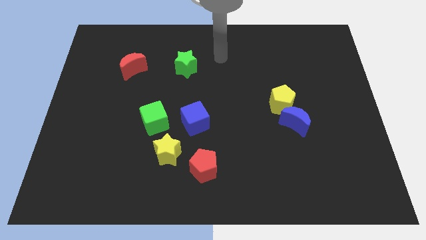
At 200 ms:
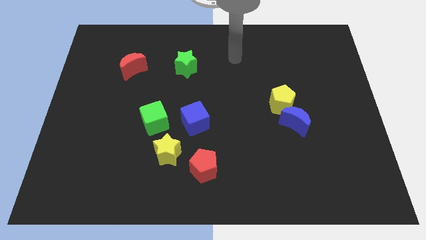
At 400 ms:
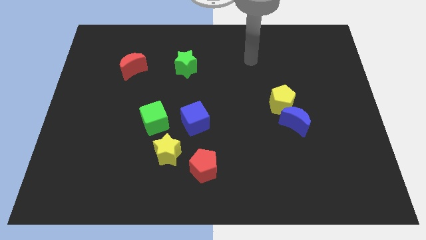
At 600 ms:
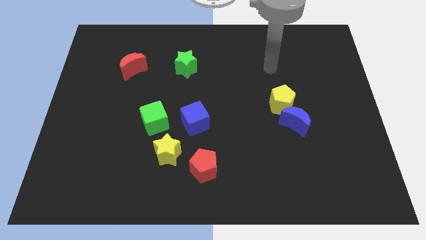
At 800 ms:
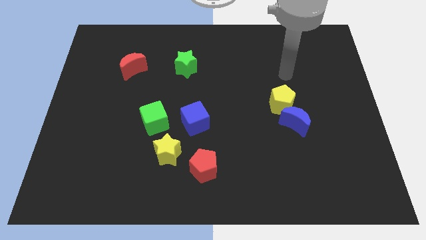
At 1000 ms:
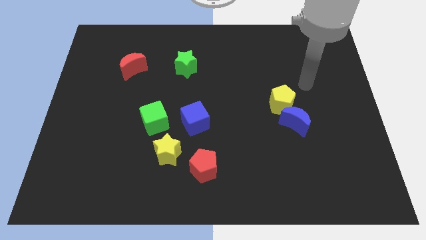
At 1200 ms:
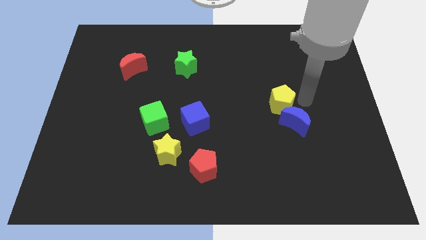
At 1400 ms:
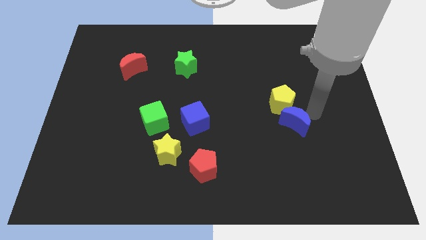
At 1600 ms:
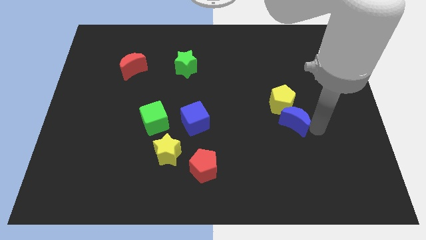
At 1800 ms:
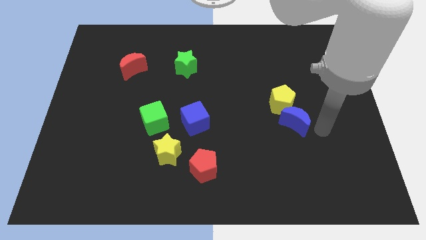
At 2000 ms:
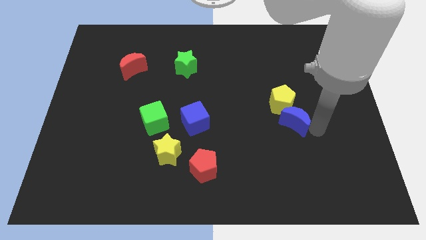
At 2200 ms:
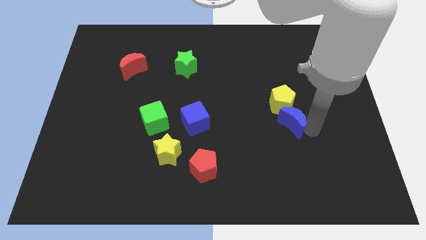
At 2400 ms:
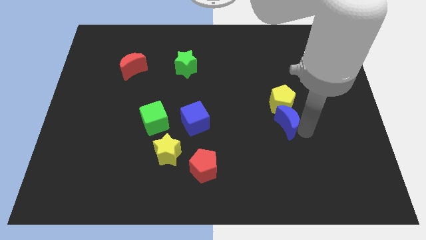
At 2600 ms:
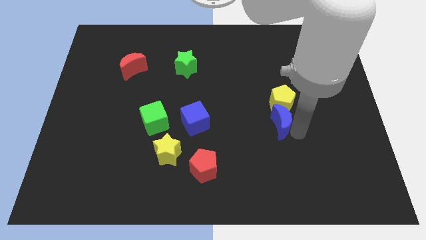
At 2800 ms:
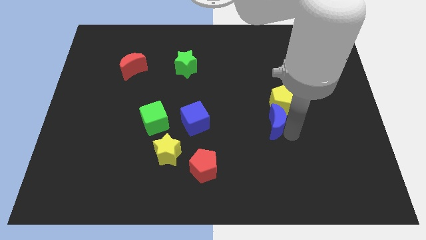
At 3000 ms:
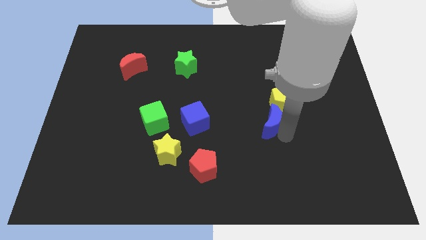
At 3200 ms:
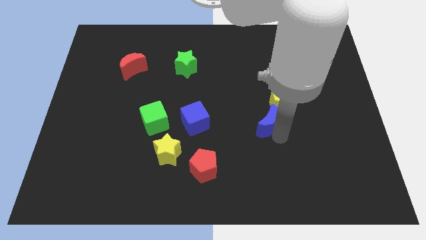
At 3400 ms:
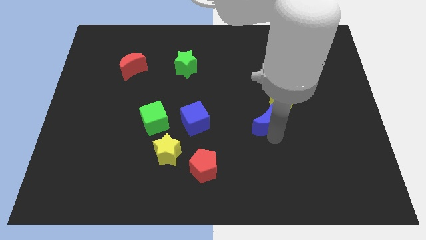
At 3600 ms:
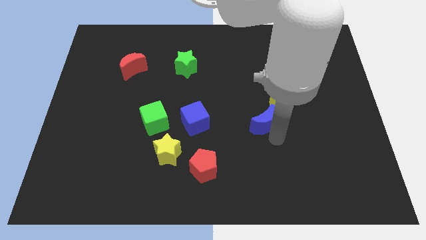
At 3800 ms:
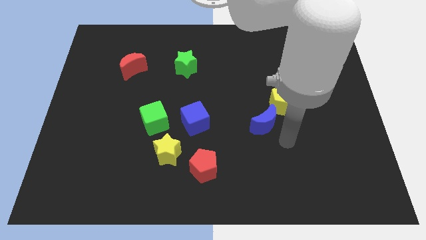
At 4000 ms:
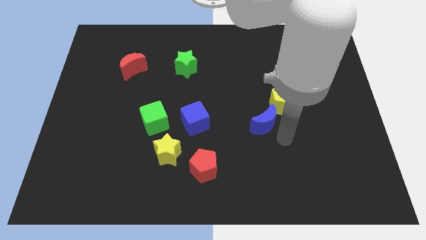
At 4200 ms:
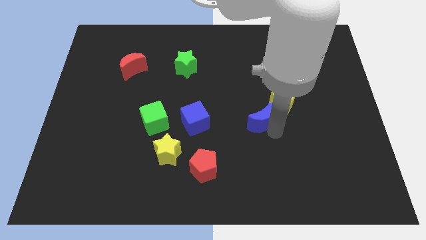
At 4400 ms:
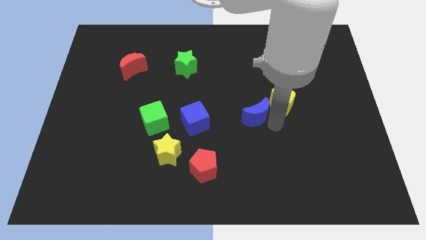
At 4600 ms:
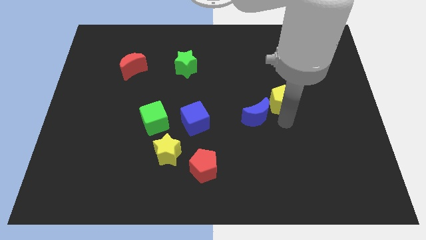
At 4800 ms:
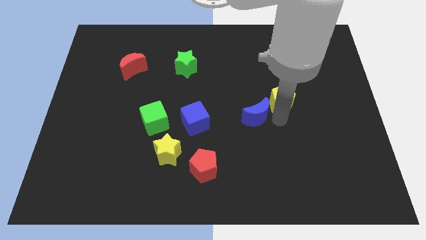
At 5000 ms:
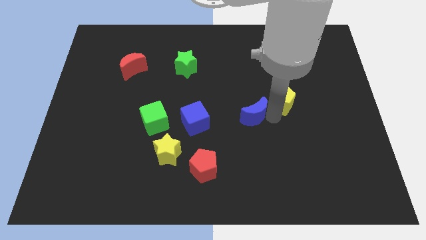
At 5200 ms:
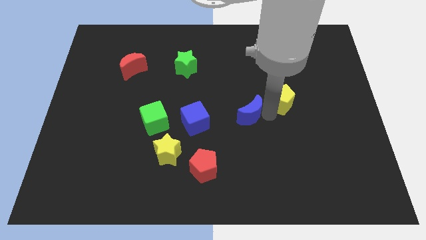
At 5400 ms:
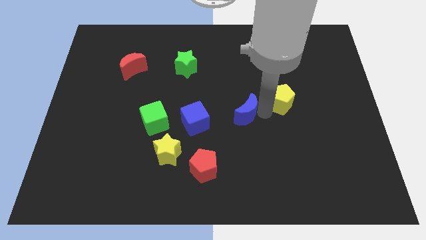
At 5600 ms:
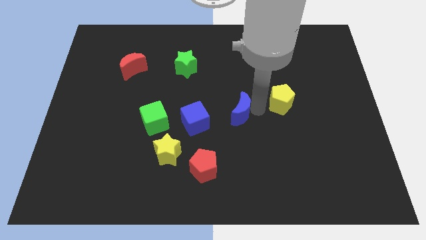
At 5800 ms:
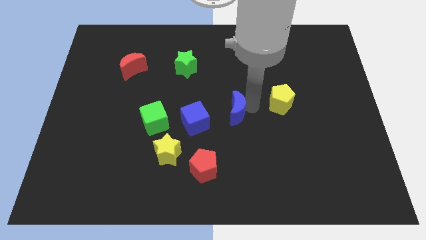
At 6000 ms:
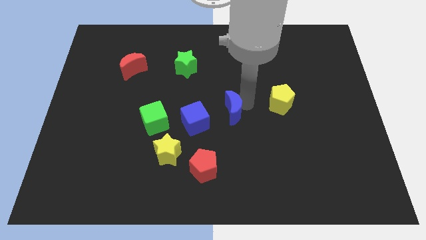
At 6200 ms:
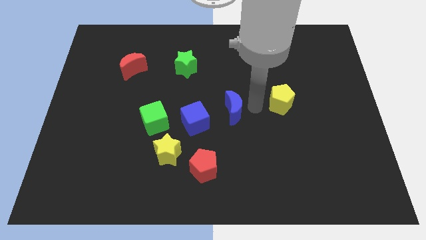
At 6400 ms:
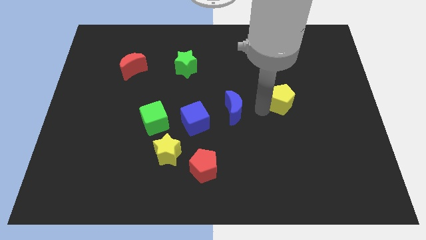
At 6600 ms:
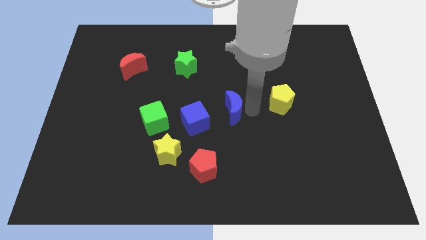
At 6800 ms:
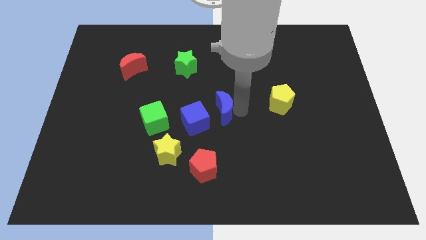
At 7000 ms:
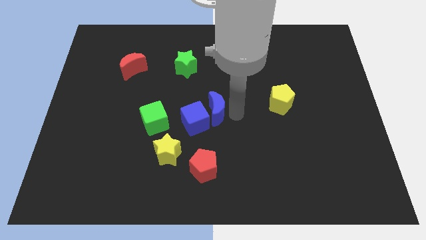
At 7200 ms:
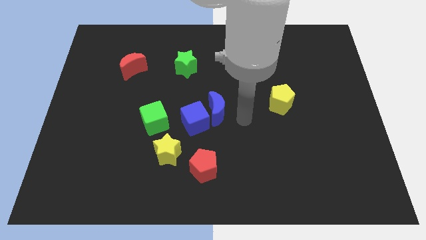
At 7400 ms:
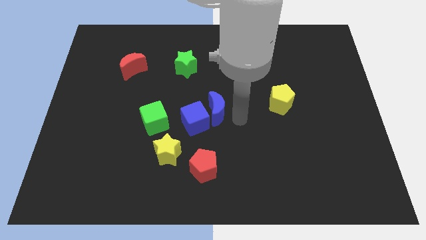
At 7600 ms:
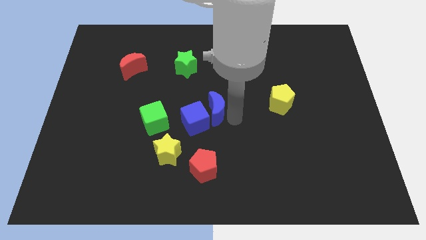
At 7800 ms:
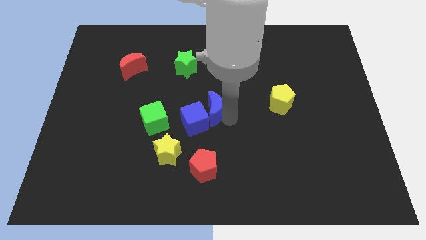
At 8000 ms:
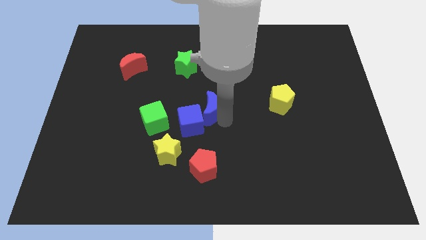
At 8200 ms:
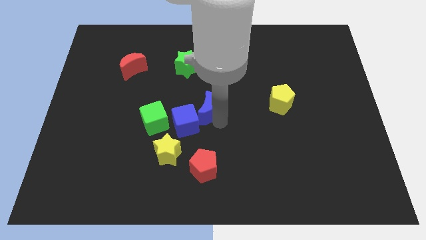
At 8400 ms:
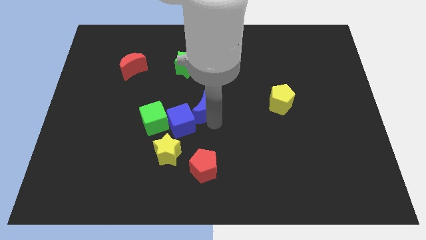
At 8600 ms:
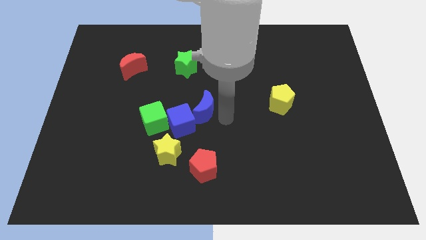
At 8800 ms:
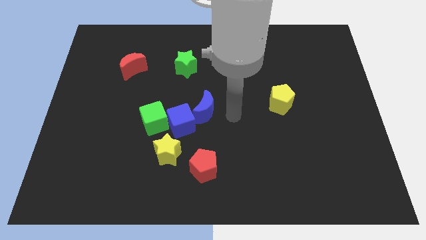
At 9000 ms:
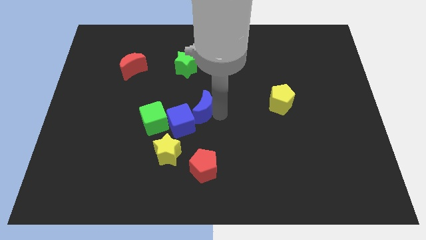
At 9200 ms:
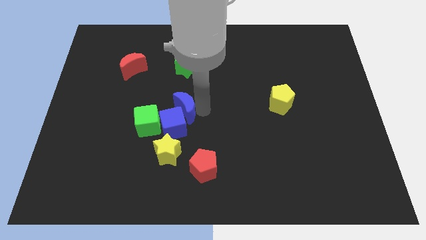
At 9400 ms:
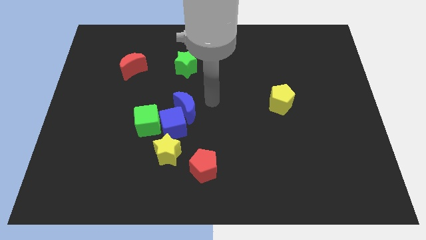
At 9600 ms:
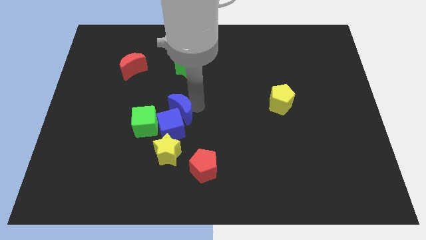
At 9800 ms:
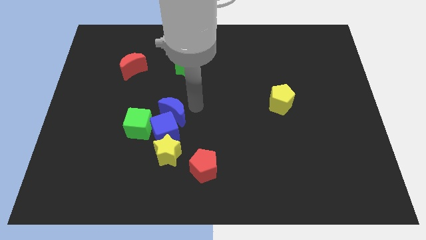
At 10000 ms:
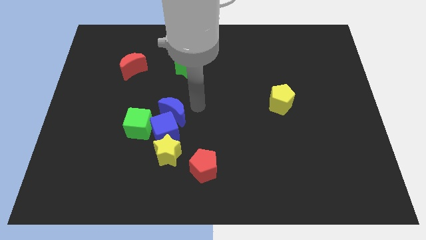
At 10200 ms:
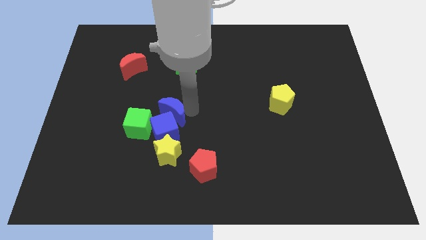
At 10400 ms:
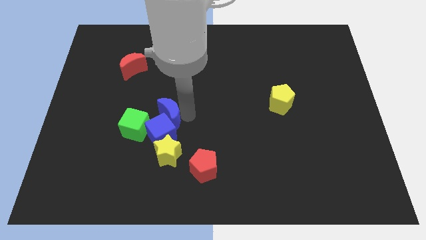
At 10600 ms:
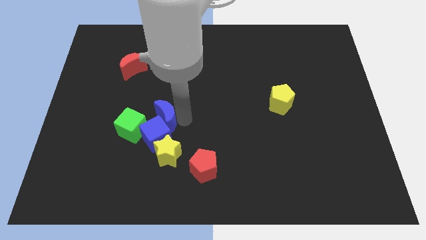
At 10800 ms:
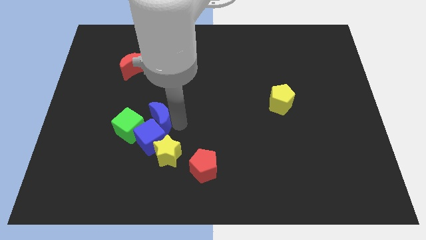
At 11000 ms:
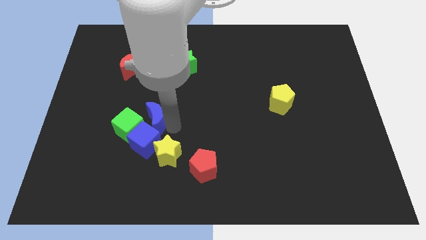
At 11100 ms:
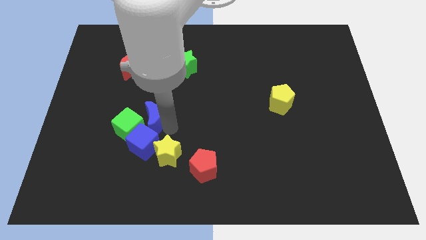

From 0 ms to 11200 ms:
push the blue moon close to the green cube

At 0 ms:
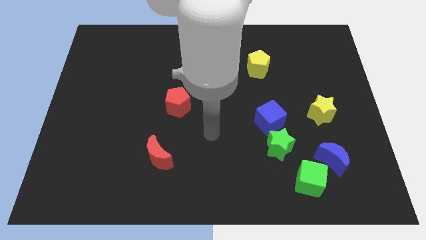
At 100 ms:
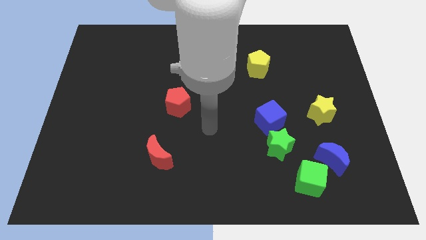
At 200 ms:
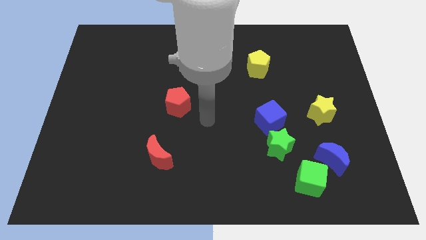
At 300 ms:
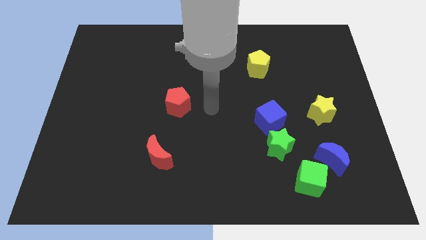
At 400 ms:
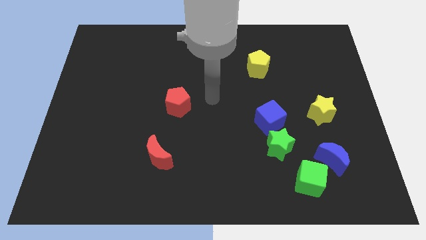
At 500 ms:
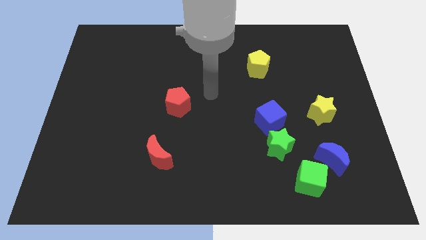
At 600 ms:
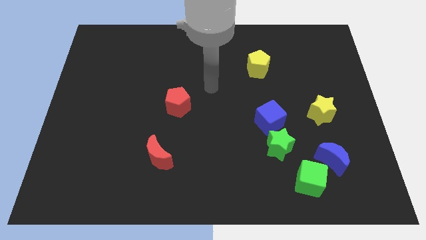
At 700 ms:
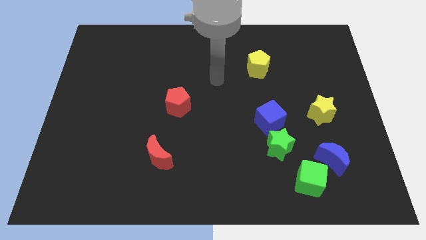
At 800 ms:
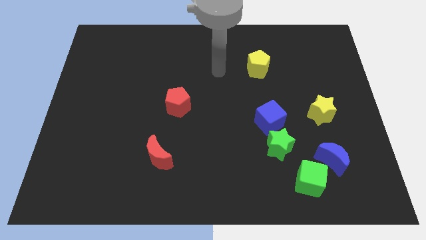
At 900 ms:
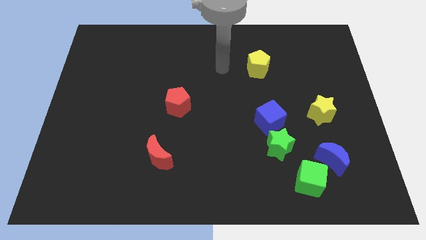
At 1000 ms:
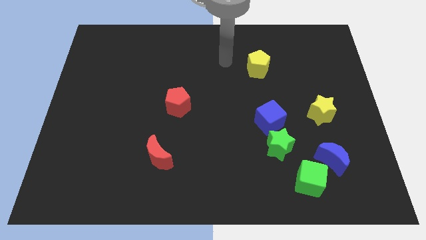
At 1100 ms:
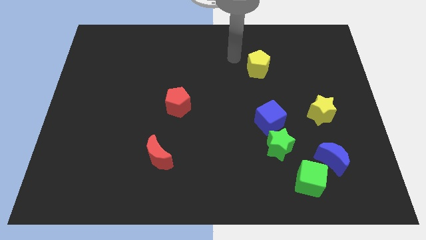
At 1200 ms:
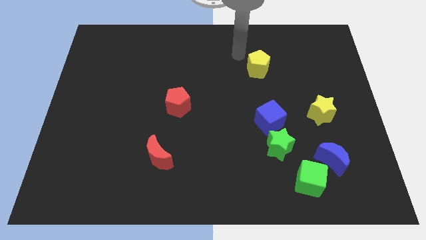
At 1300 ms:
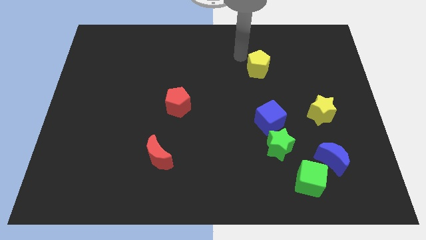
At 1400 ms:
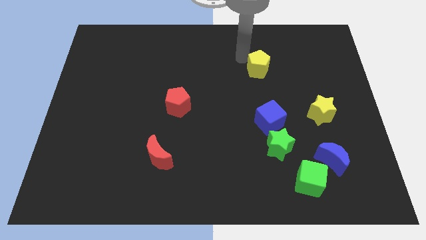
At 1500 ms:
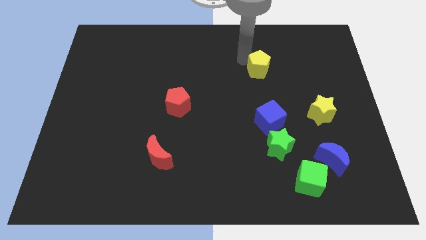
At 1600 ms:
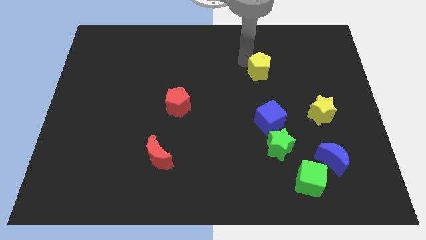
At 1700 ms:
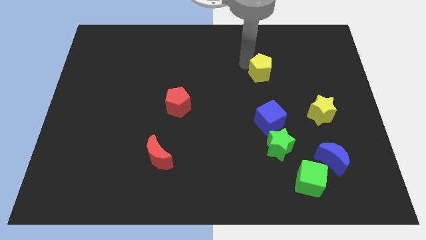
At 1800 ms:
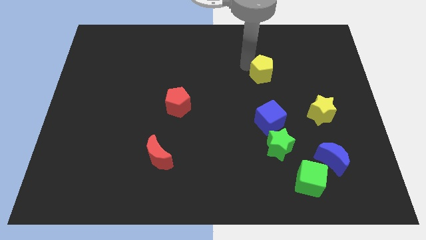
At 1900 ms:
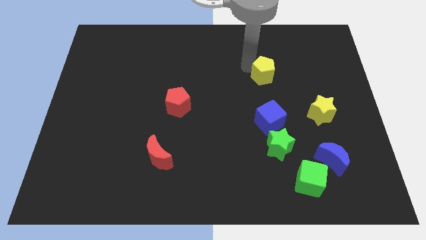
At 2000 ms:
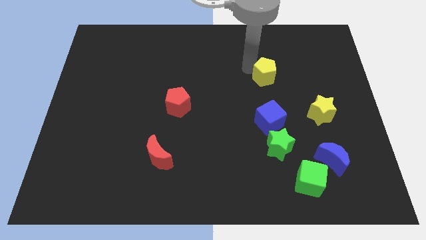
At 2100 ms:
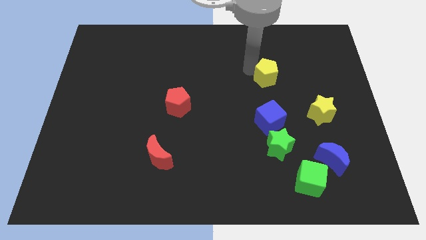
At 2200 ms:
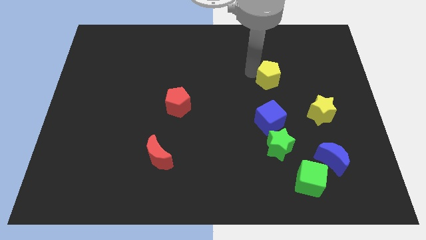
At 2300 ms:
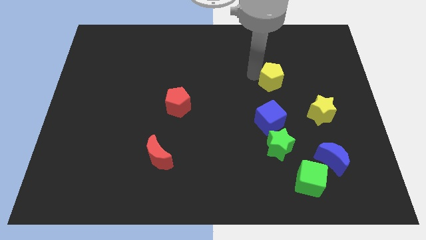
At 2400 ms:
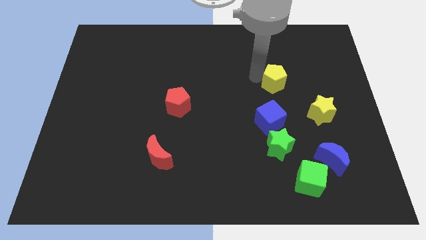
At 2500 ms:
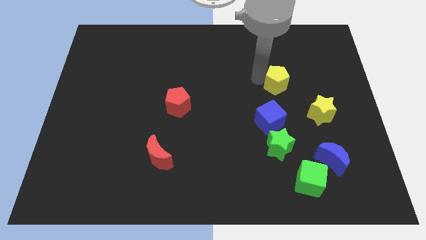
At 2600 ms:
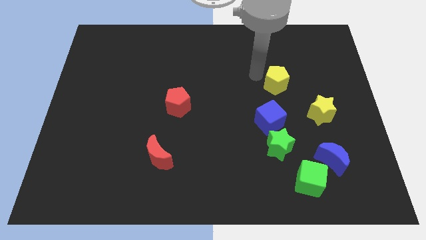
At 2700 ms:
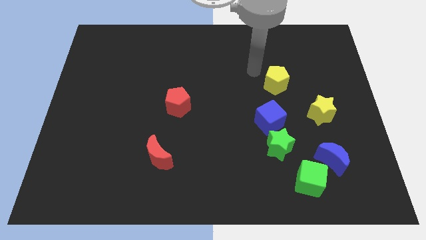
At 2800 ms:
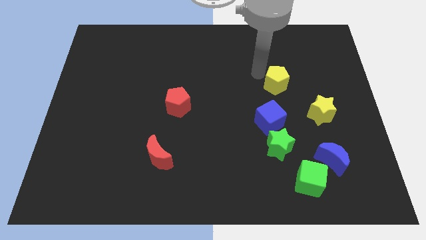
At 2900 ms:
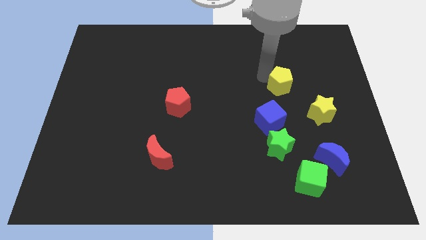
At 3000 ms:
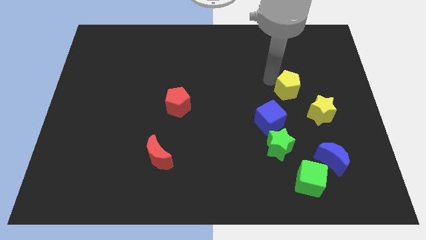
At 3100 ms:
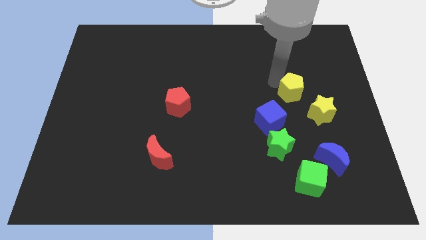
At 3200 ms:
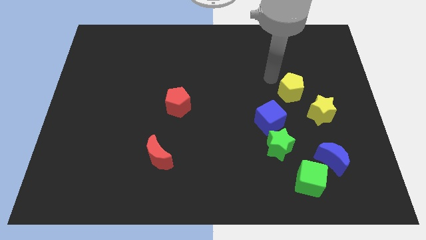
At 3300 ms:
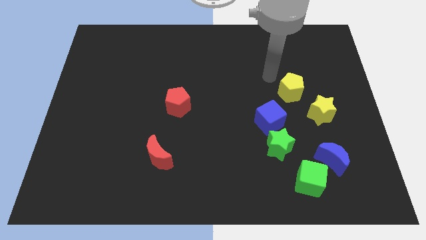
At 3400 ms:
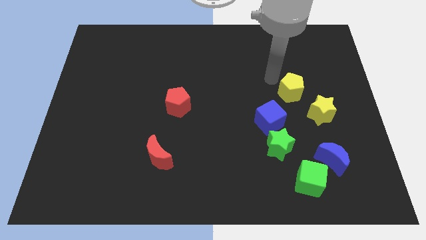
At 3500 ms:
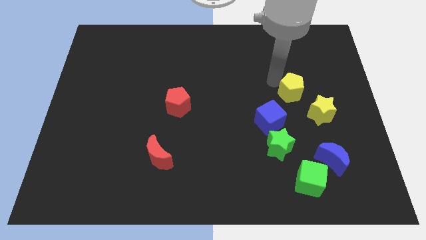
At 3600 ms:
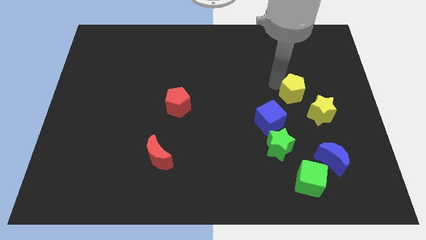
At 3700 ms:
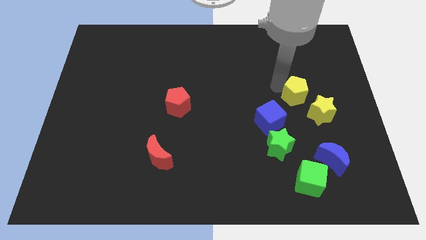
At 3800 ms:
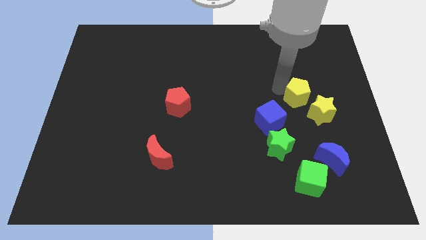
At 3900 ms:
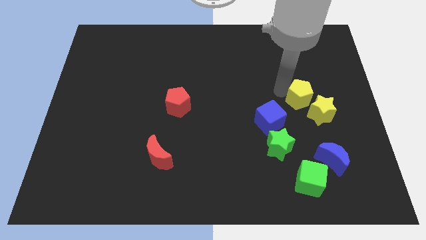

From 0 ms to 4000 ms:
put the yellow pentagon to the yellow star
